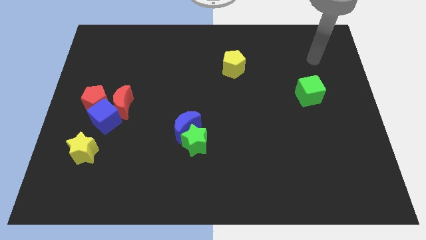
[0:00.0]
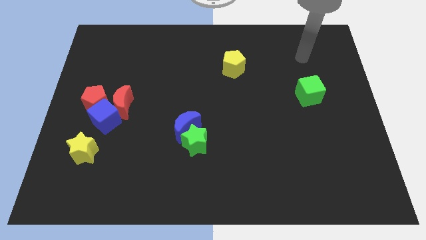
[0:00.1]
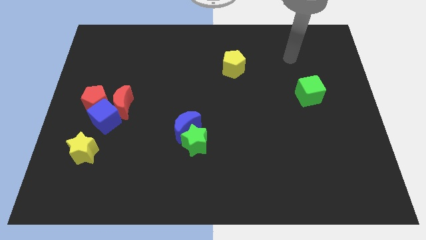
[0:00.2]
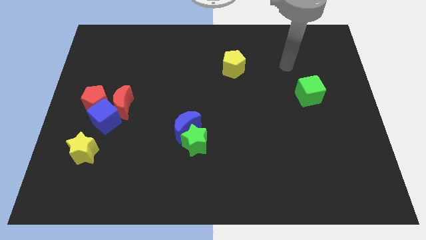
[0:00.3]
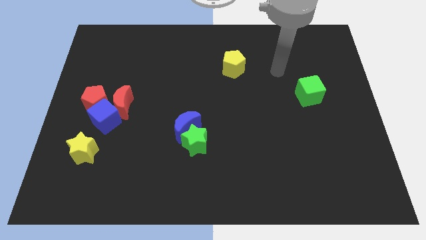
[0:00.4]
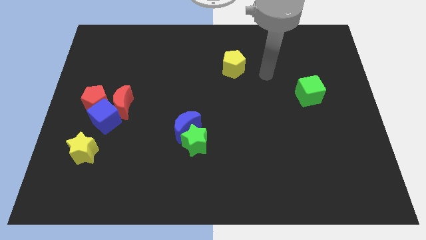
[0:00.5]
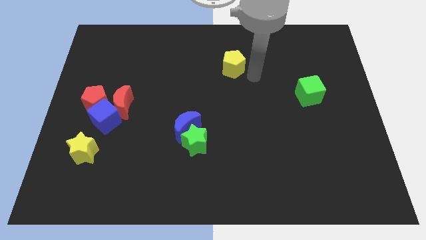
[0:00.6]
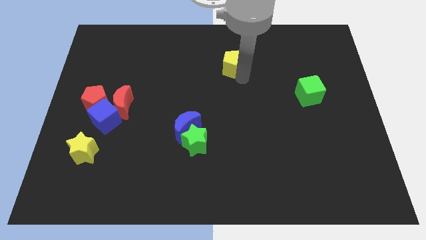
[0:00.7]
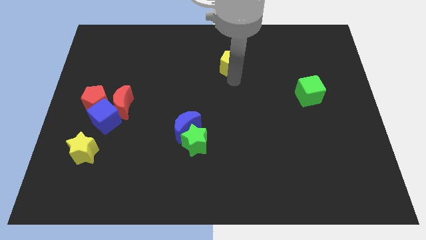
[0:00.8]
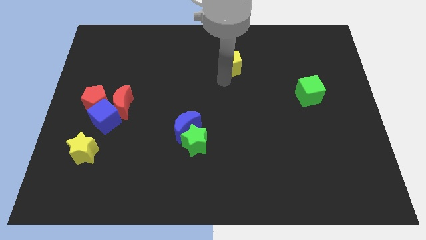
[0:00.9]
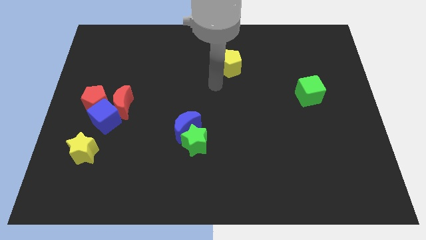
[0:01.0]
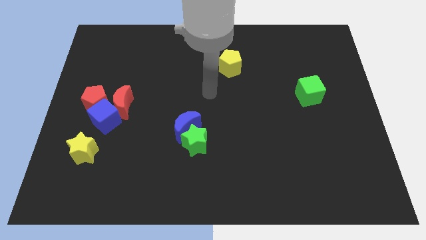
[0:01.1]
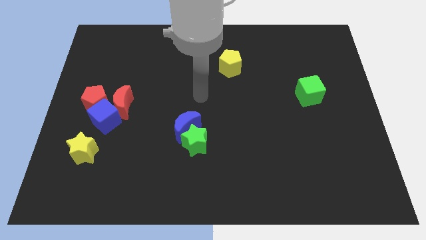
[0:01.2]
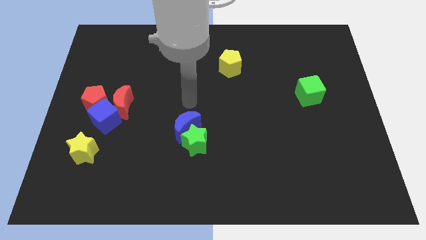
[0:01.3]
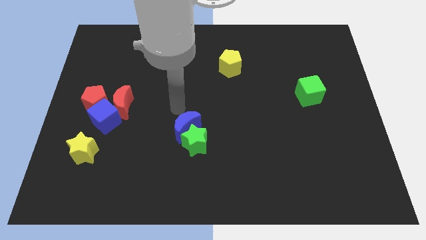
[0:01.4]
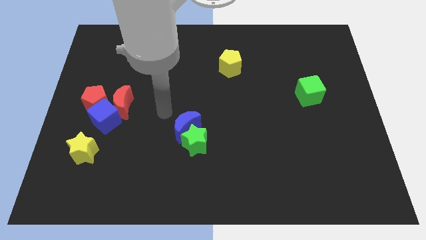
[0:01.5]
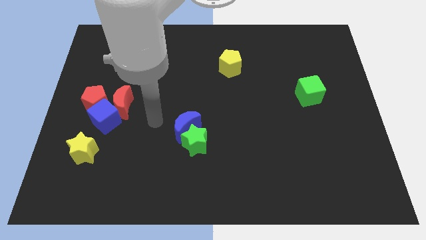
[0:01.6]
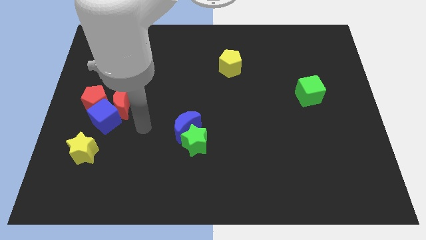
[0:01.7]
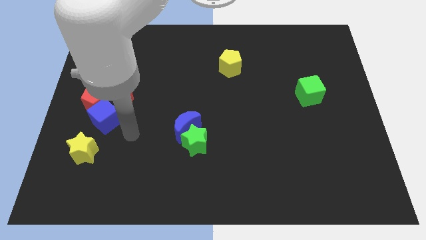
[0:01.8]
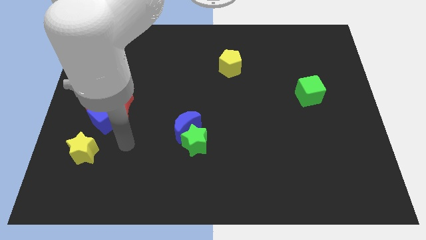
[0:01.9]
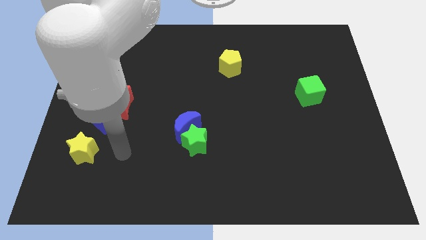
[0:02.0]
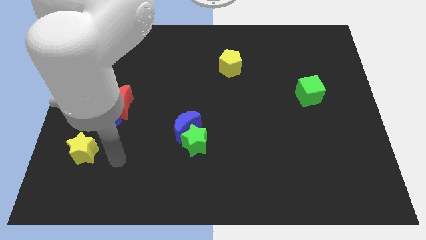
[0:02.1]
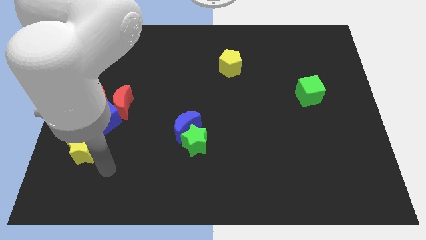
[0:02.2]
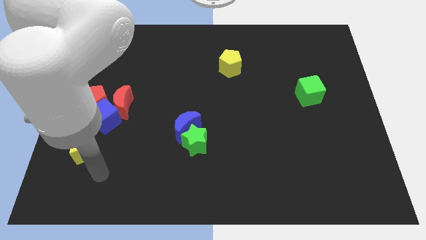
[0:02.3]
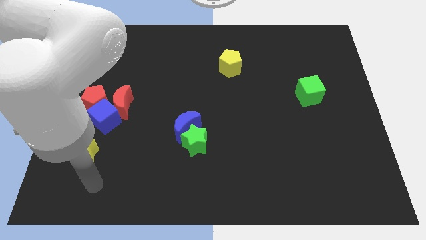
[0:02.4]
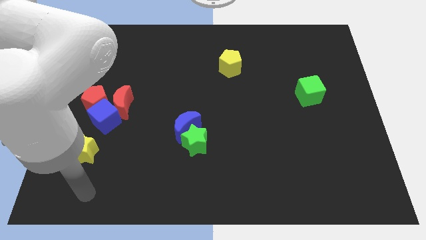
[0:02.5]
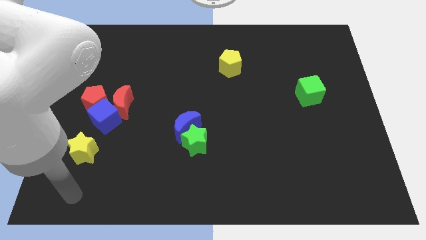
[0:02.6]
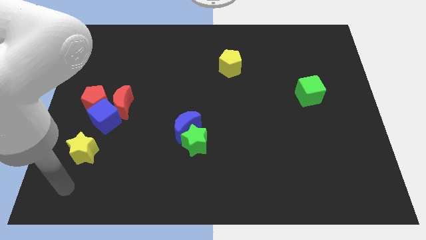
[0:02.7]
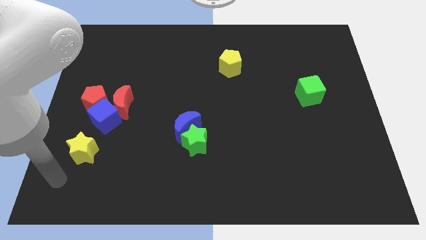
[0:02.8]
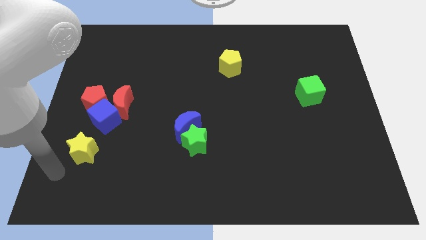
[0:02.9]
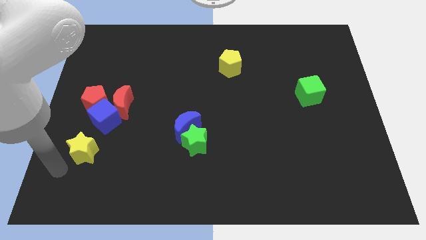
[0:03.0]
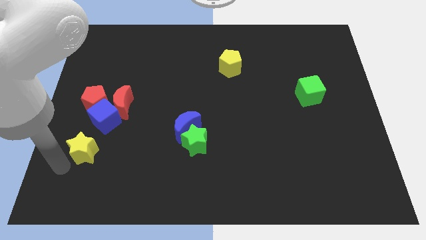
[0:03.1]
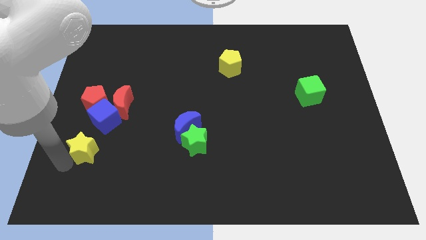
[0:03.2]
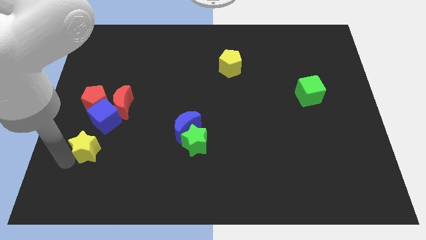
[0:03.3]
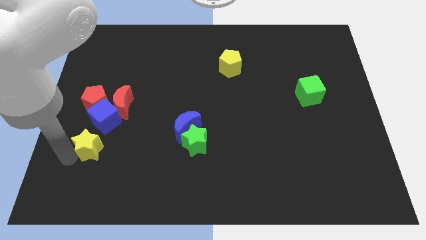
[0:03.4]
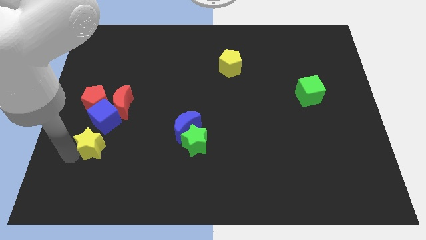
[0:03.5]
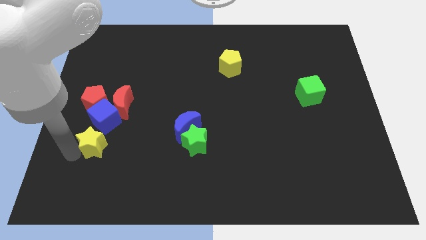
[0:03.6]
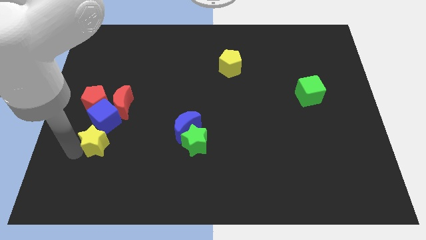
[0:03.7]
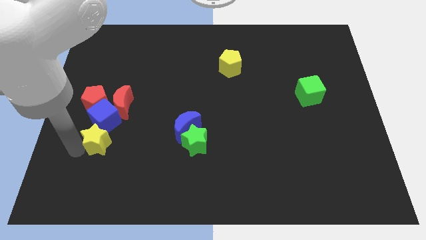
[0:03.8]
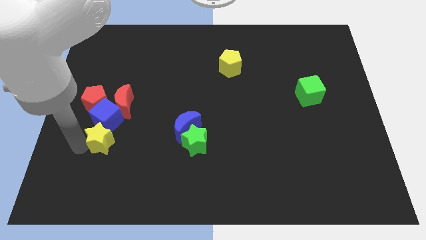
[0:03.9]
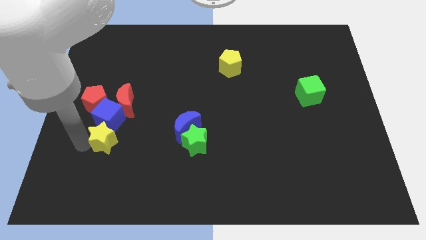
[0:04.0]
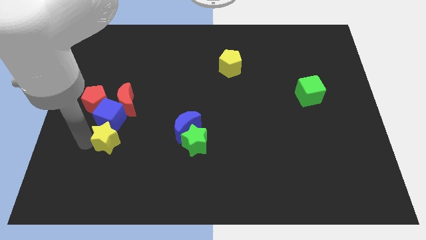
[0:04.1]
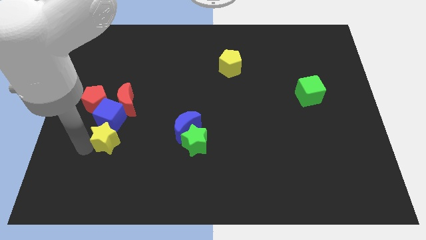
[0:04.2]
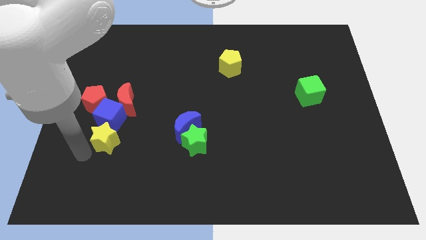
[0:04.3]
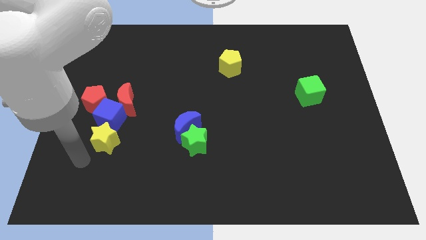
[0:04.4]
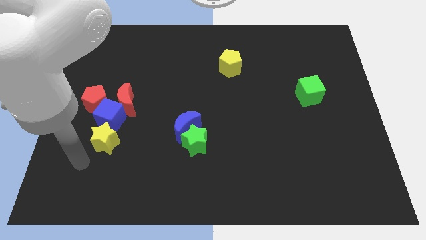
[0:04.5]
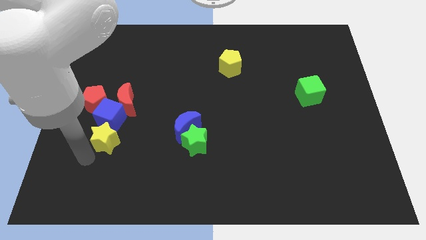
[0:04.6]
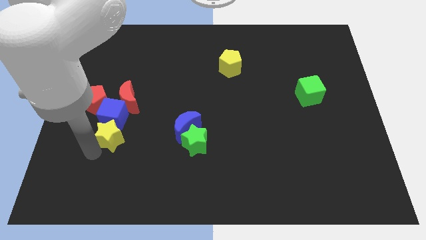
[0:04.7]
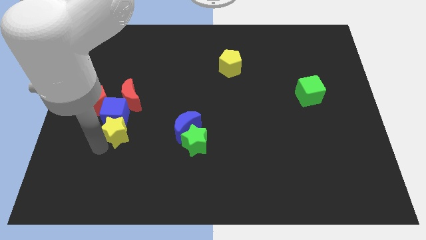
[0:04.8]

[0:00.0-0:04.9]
push the yellow star somewhat upwards and to the right diagonally

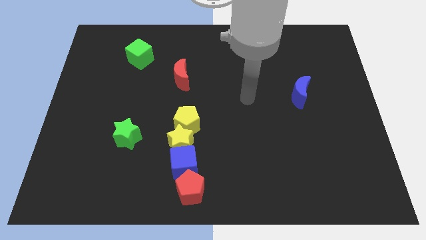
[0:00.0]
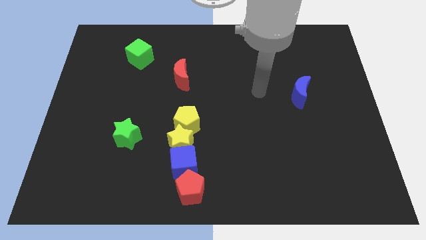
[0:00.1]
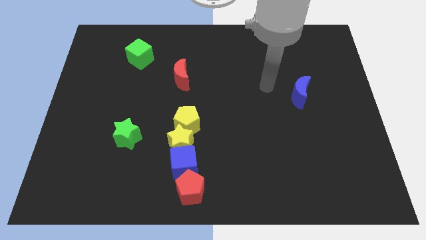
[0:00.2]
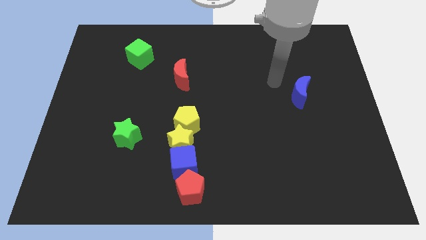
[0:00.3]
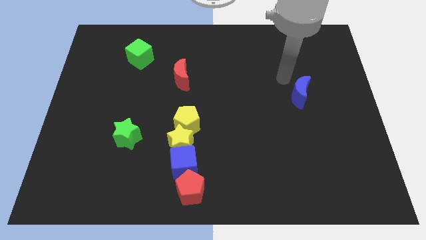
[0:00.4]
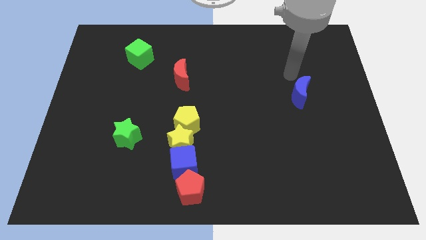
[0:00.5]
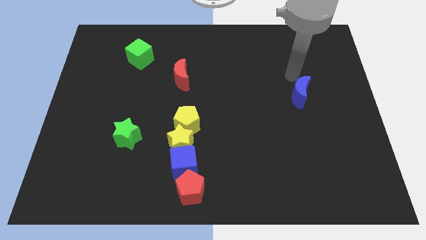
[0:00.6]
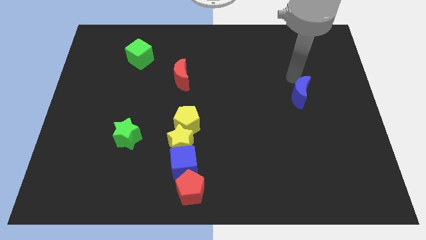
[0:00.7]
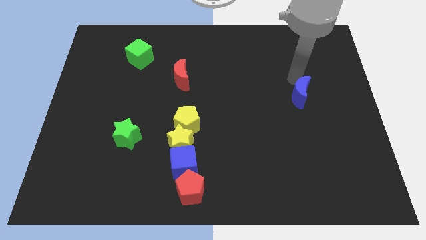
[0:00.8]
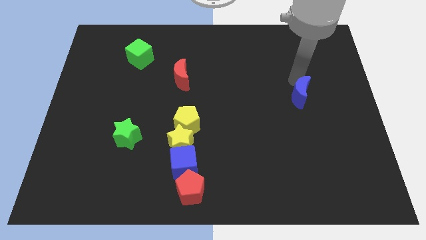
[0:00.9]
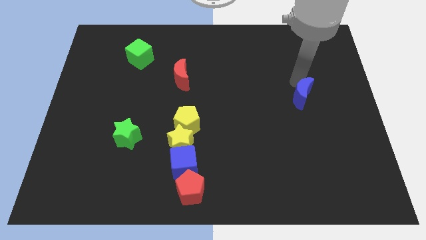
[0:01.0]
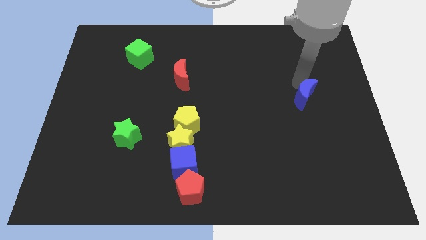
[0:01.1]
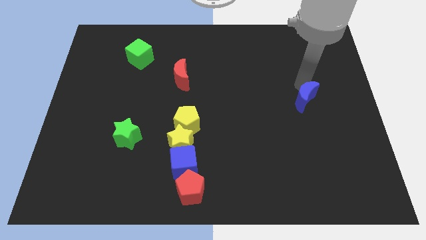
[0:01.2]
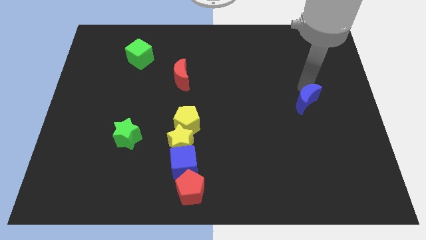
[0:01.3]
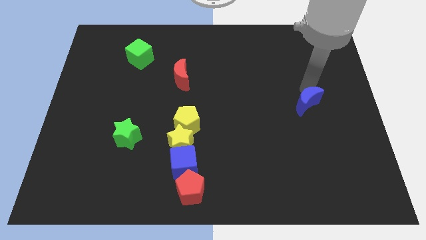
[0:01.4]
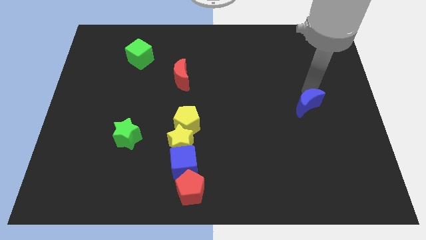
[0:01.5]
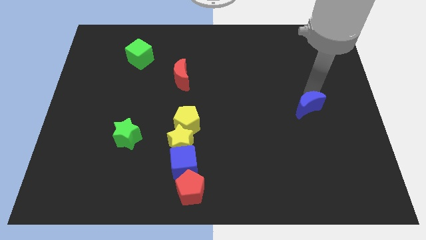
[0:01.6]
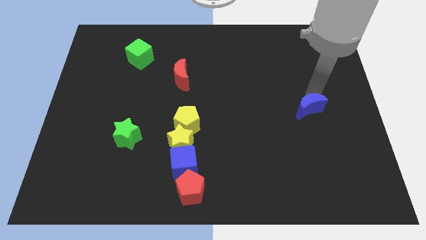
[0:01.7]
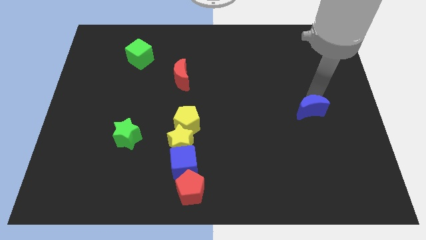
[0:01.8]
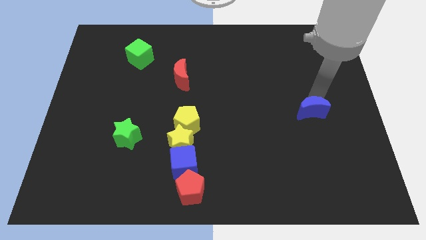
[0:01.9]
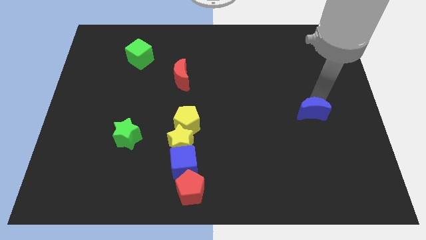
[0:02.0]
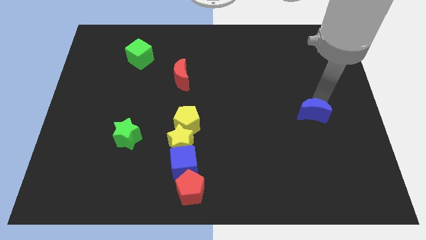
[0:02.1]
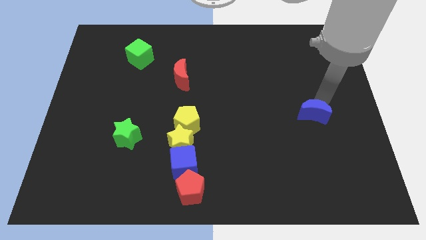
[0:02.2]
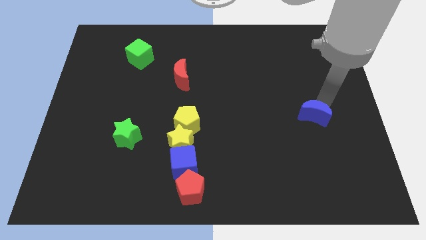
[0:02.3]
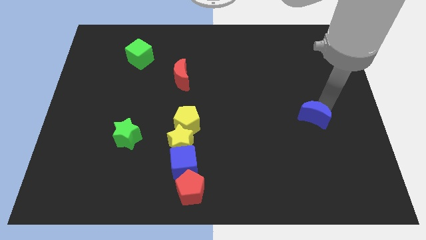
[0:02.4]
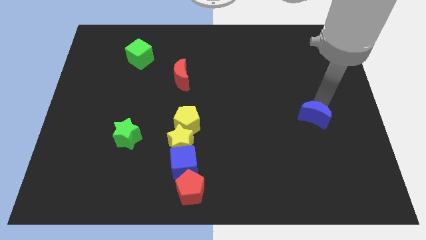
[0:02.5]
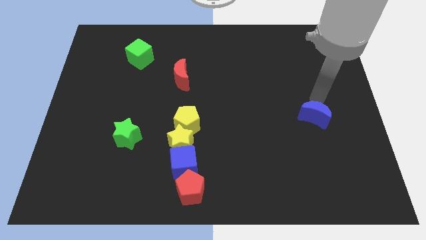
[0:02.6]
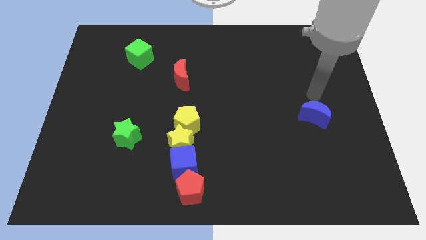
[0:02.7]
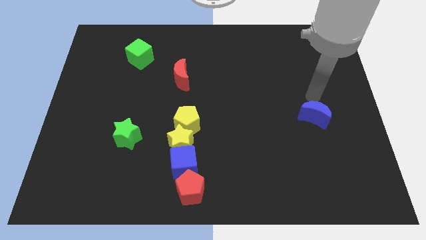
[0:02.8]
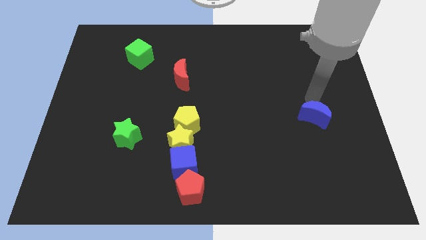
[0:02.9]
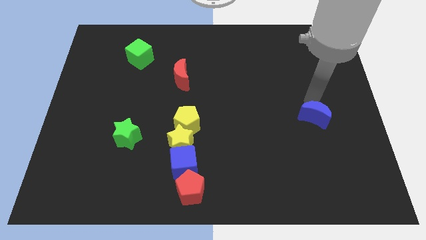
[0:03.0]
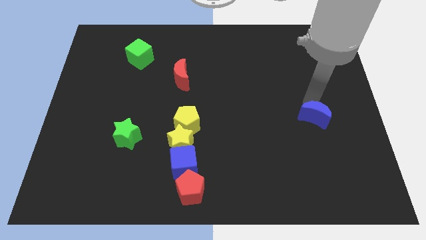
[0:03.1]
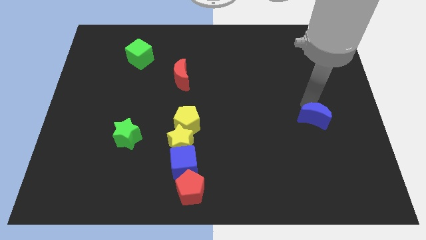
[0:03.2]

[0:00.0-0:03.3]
slightly push the blue moon downwards

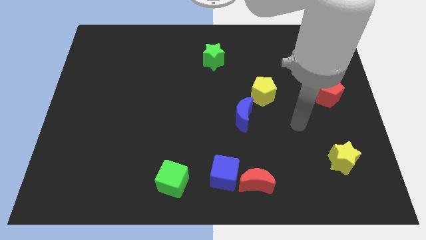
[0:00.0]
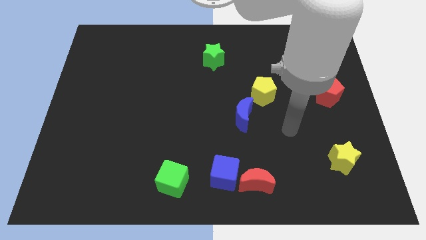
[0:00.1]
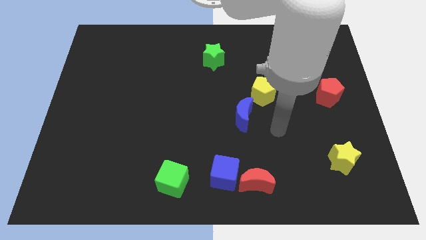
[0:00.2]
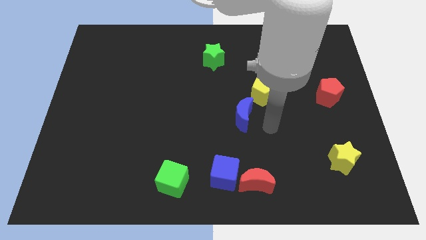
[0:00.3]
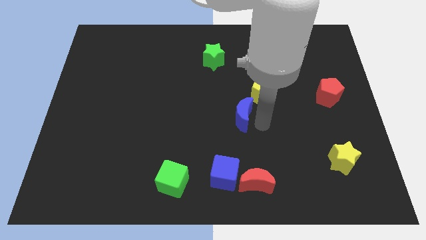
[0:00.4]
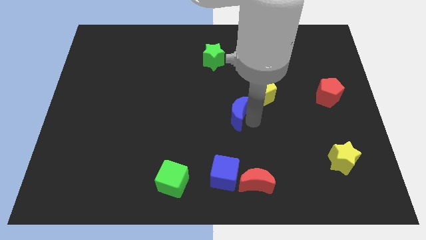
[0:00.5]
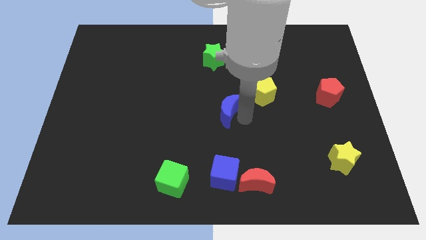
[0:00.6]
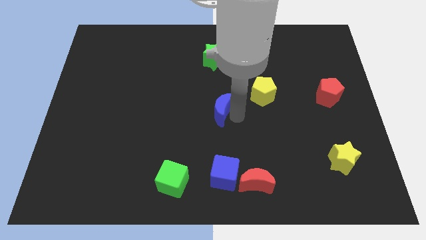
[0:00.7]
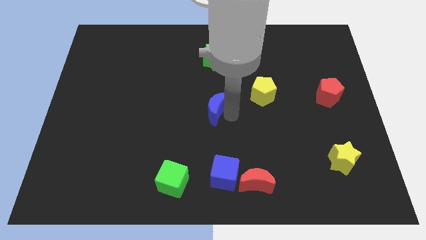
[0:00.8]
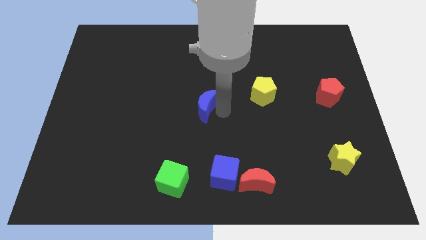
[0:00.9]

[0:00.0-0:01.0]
move the blue moon a little bit to the left
